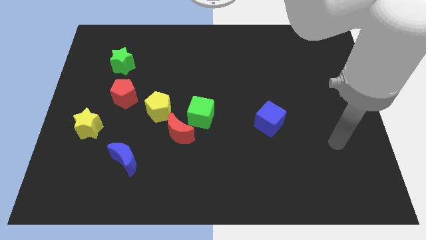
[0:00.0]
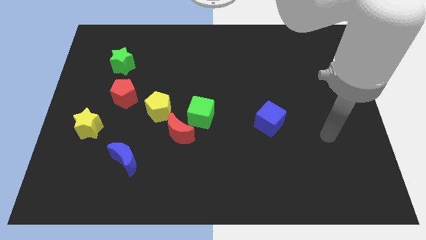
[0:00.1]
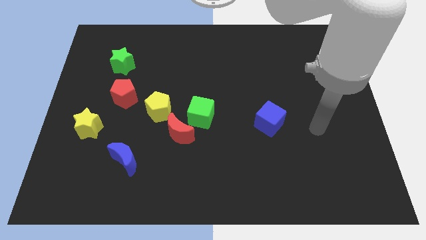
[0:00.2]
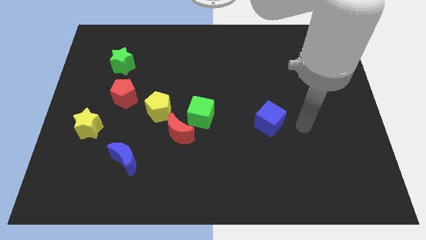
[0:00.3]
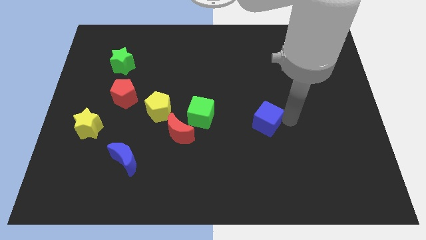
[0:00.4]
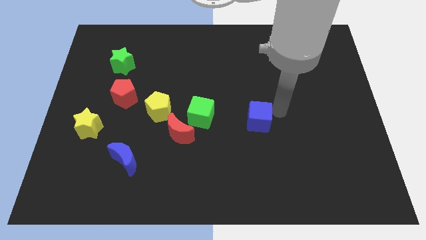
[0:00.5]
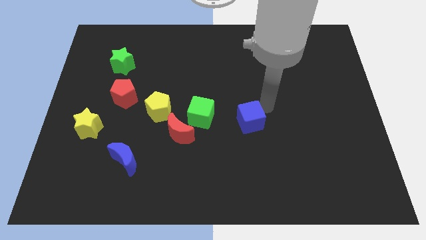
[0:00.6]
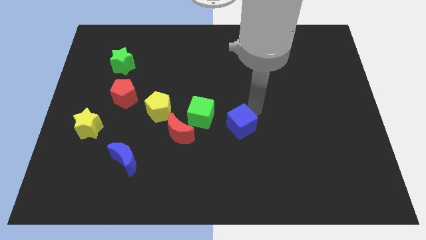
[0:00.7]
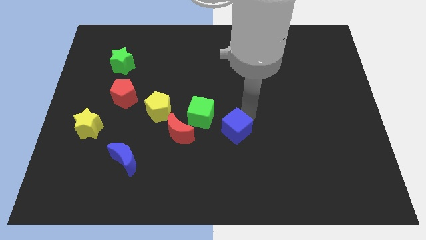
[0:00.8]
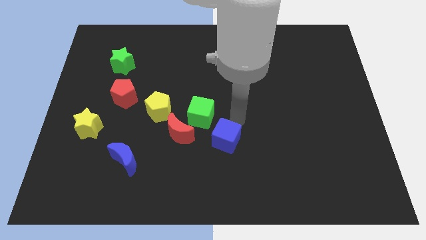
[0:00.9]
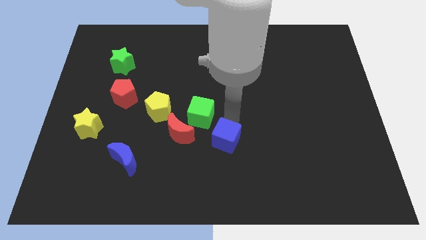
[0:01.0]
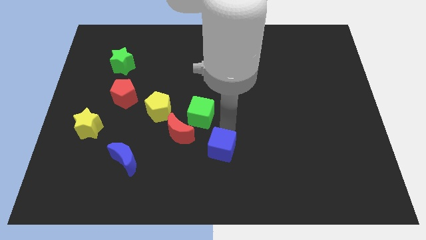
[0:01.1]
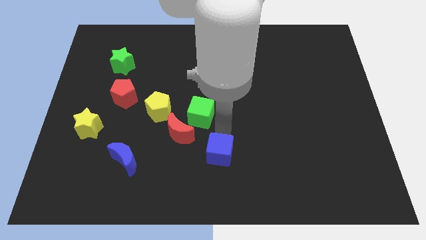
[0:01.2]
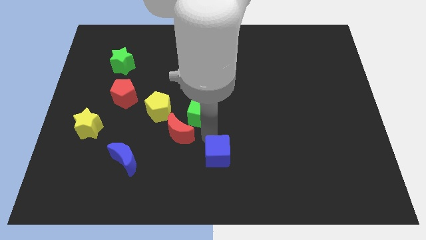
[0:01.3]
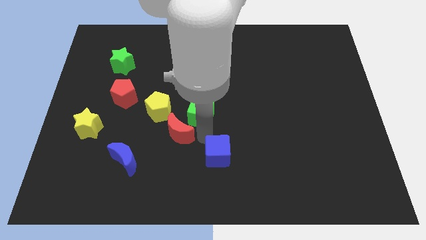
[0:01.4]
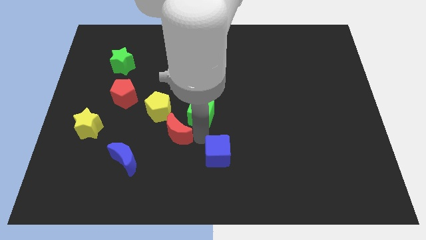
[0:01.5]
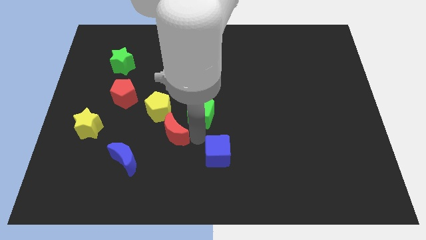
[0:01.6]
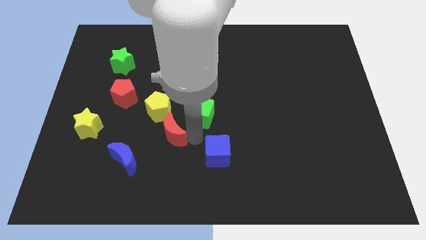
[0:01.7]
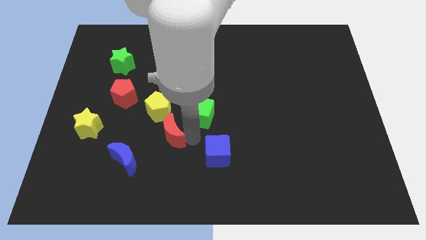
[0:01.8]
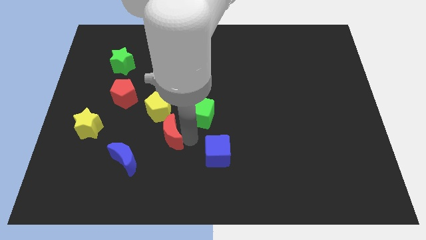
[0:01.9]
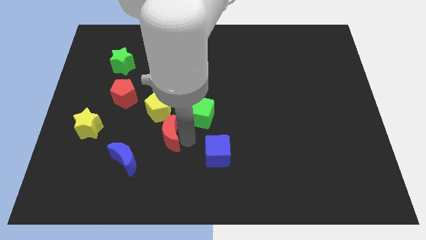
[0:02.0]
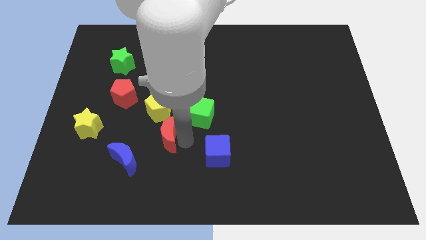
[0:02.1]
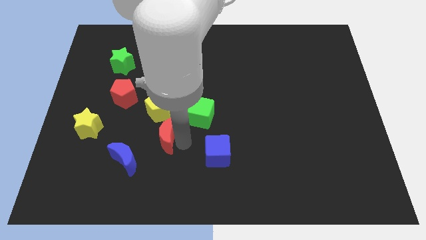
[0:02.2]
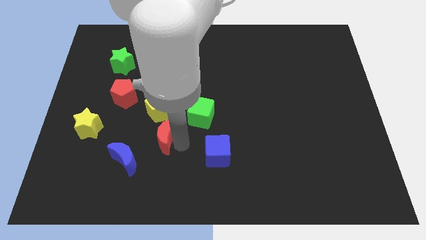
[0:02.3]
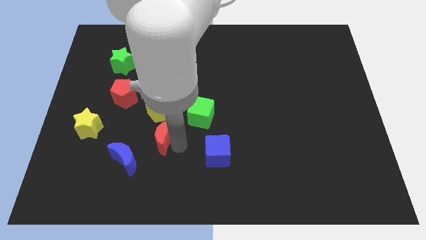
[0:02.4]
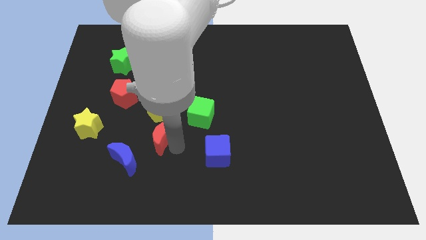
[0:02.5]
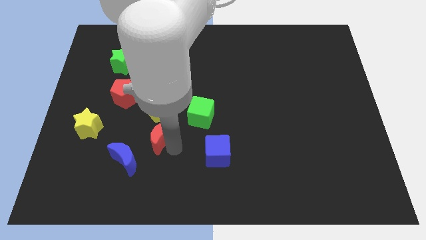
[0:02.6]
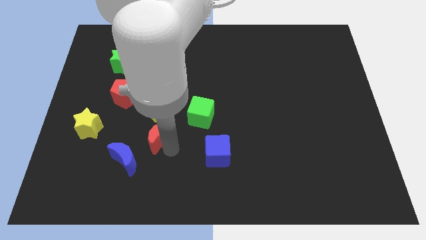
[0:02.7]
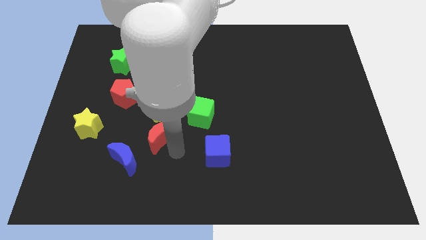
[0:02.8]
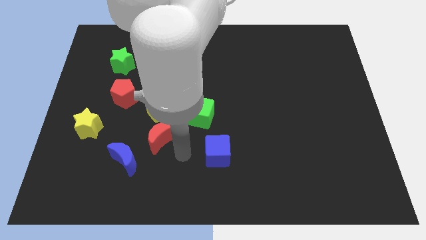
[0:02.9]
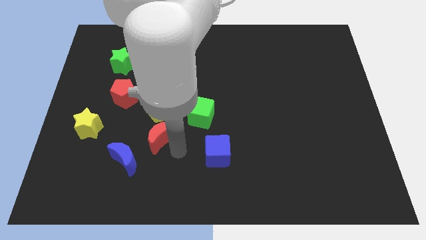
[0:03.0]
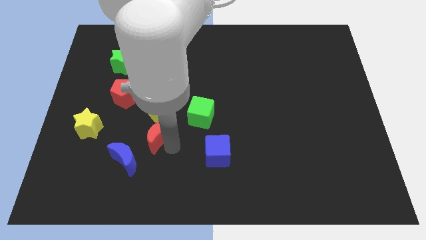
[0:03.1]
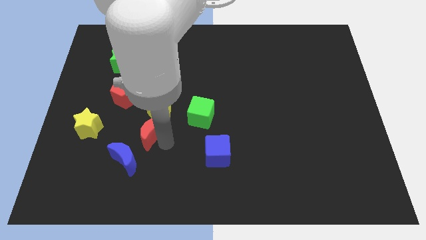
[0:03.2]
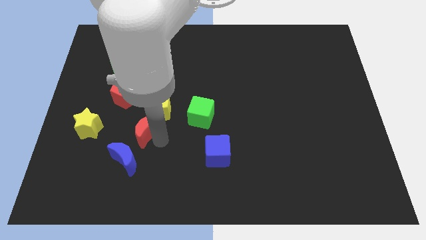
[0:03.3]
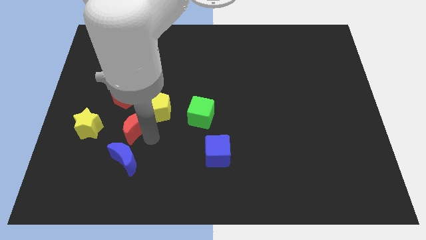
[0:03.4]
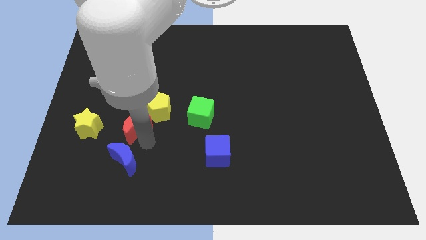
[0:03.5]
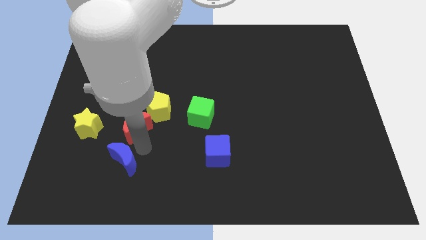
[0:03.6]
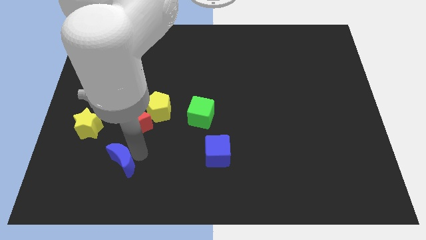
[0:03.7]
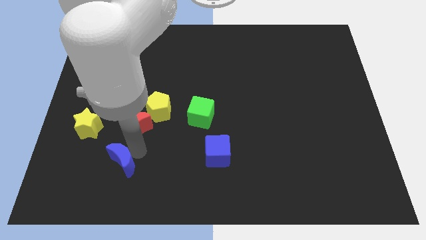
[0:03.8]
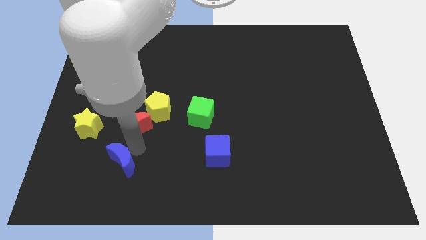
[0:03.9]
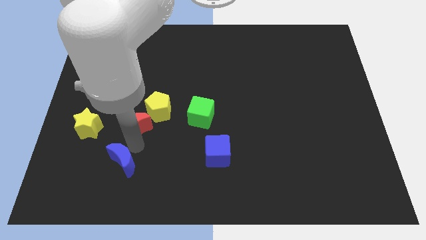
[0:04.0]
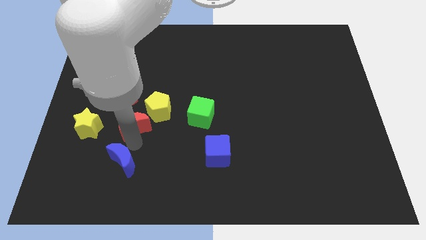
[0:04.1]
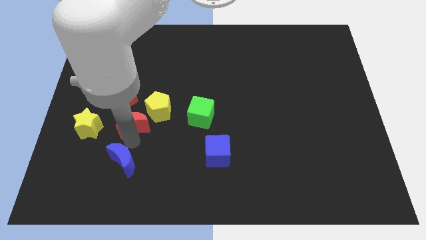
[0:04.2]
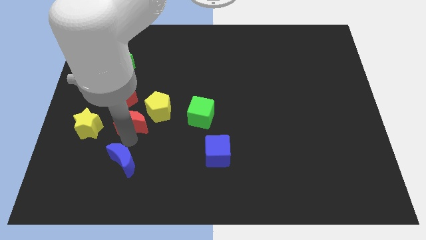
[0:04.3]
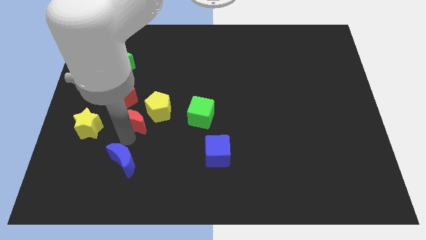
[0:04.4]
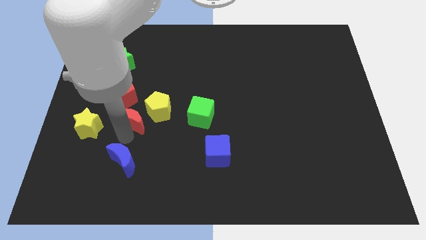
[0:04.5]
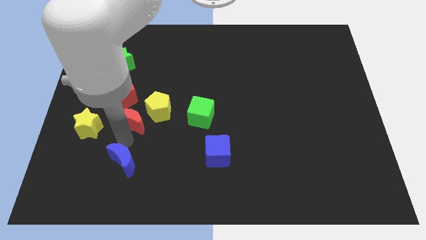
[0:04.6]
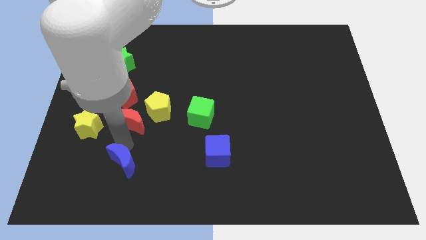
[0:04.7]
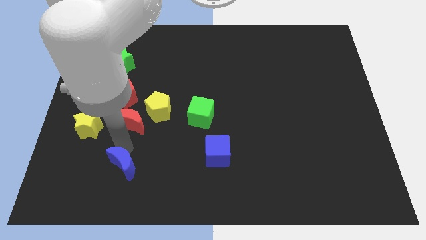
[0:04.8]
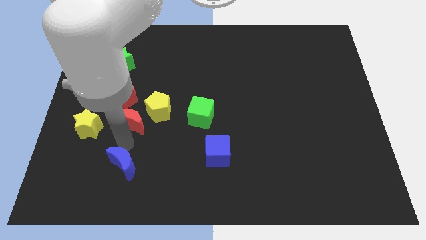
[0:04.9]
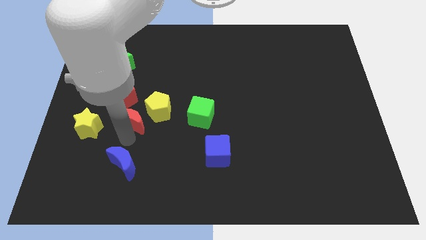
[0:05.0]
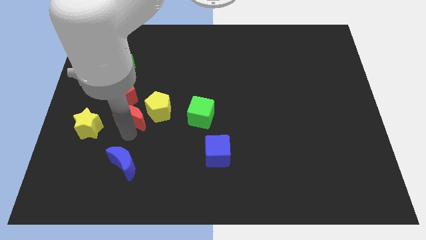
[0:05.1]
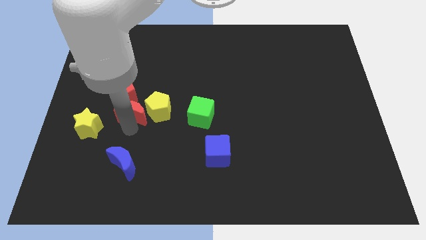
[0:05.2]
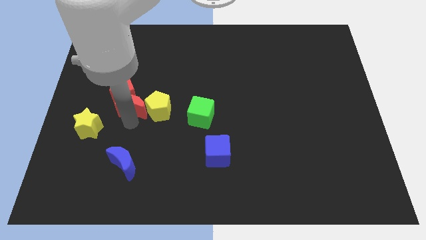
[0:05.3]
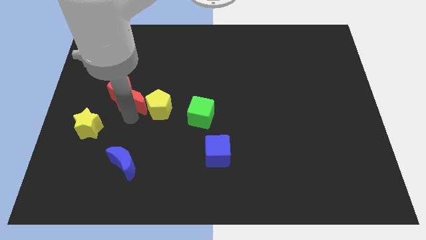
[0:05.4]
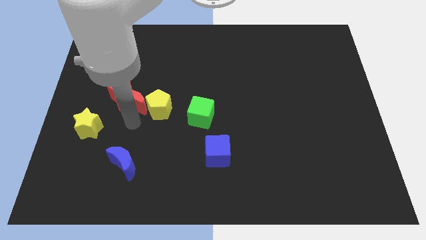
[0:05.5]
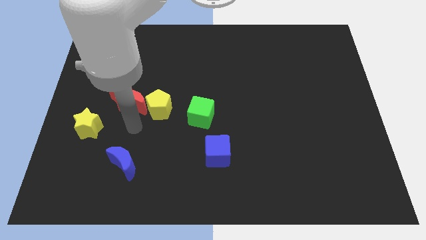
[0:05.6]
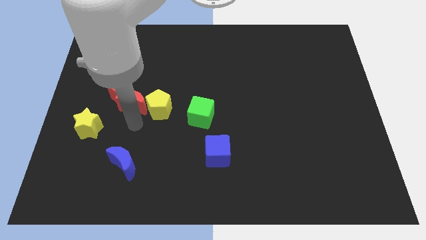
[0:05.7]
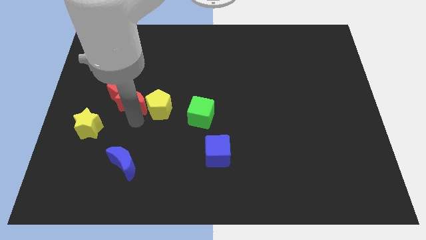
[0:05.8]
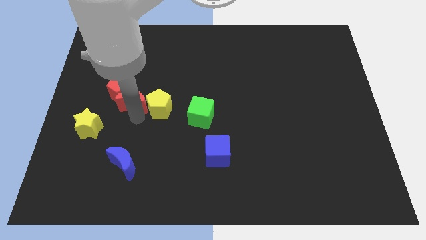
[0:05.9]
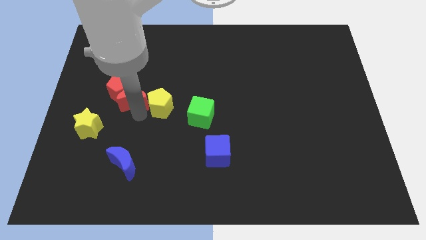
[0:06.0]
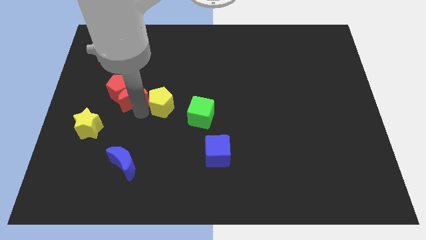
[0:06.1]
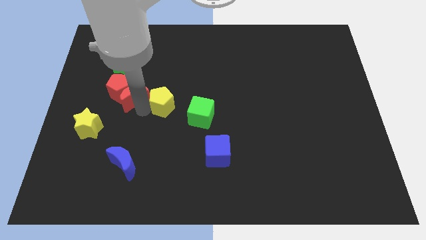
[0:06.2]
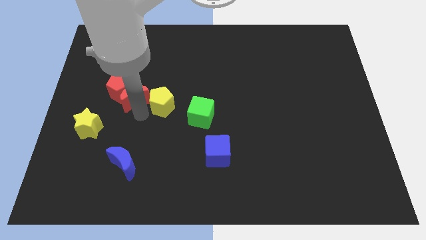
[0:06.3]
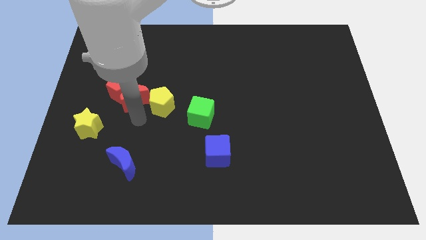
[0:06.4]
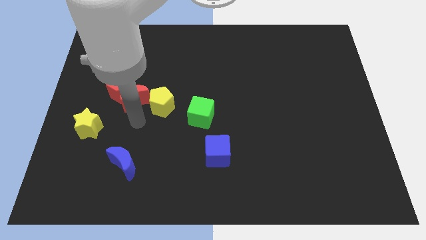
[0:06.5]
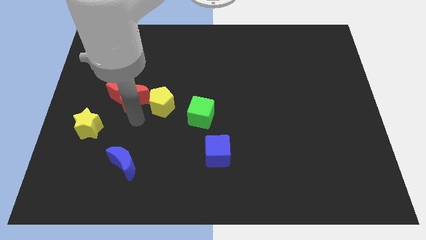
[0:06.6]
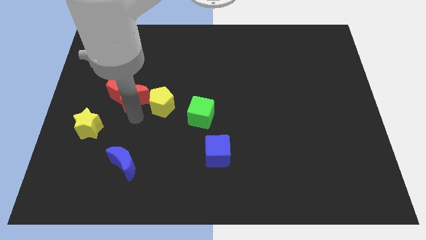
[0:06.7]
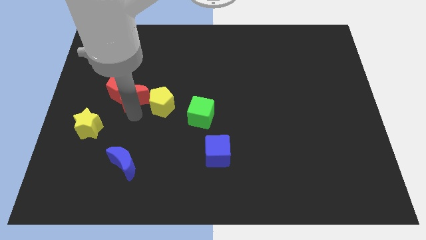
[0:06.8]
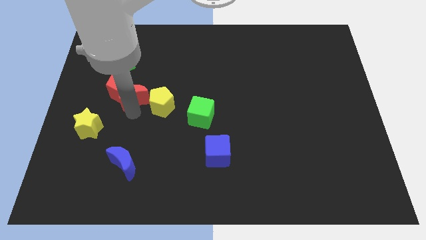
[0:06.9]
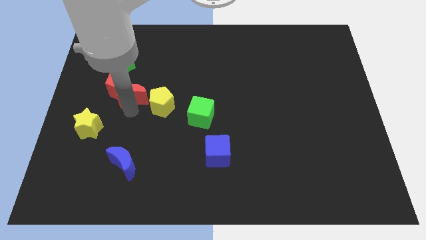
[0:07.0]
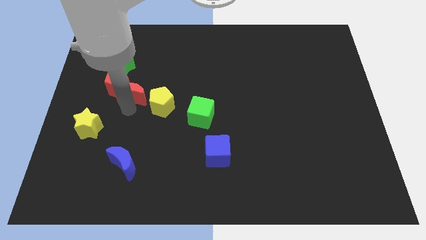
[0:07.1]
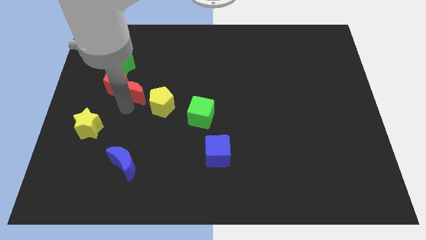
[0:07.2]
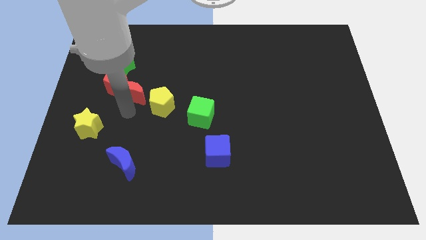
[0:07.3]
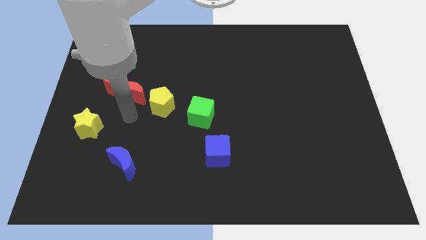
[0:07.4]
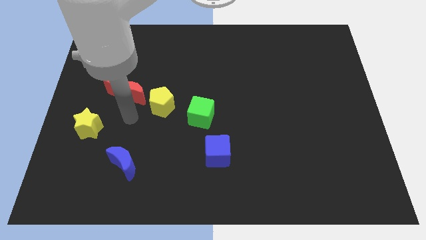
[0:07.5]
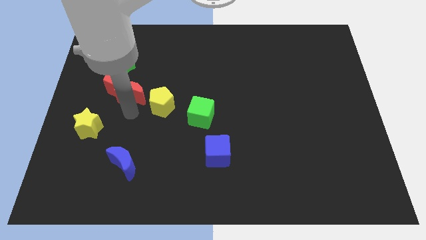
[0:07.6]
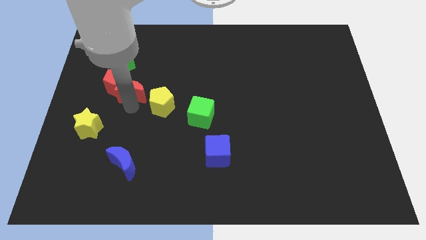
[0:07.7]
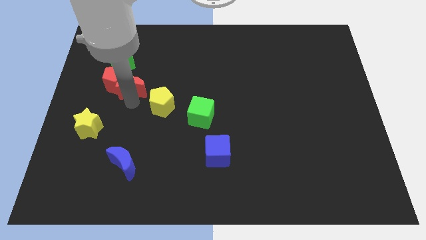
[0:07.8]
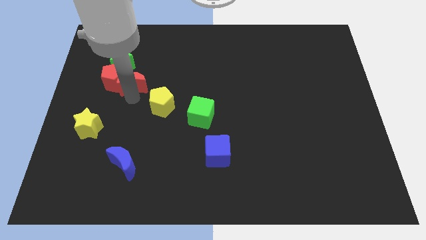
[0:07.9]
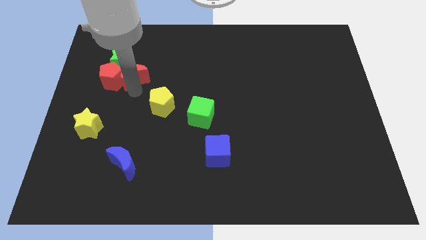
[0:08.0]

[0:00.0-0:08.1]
push the red moon towards the green star
